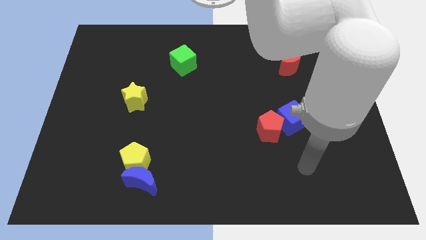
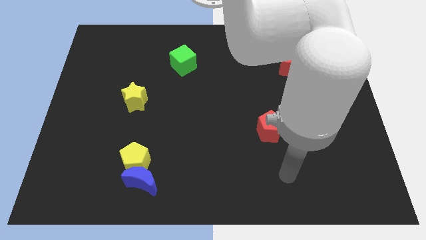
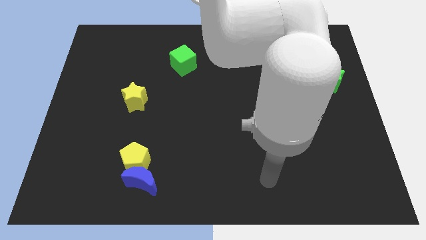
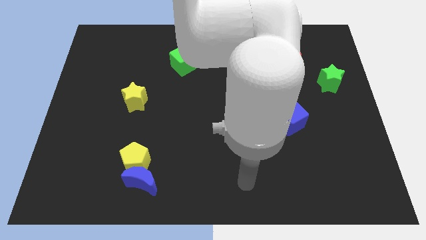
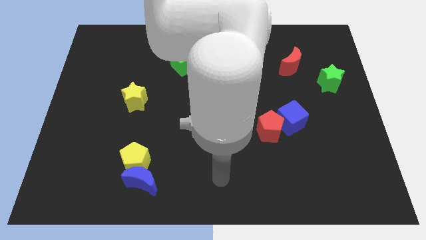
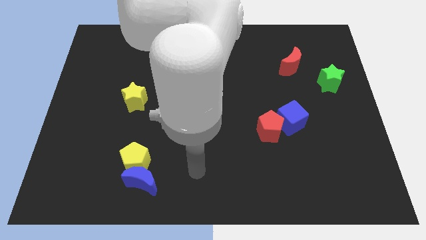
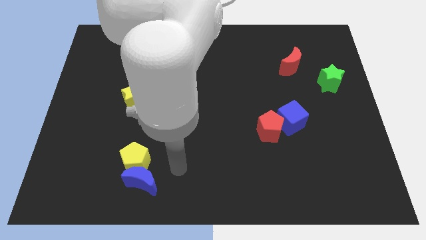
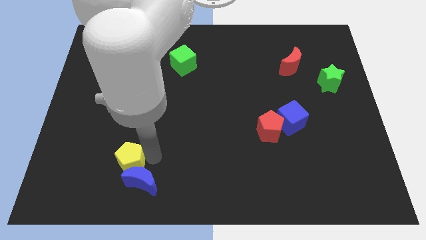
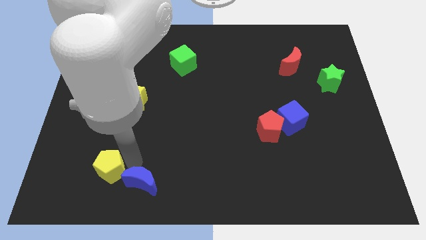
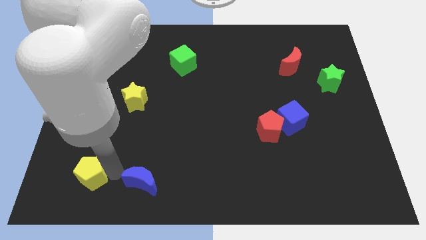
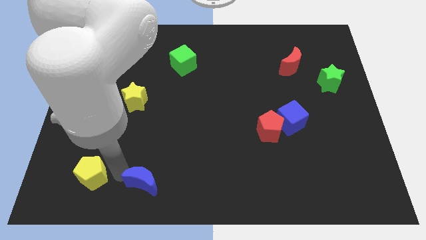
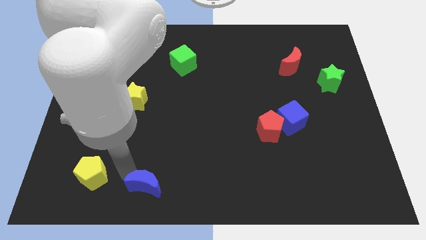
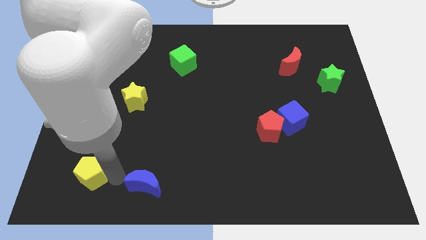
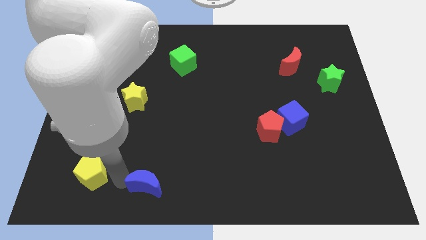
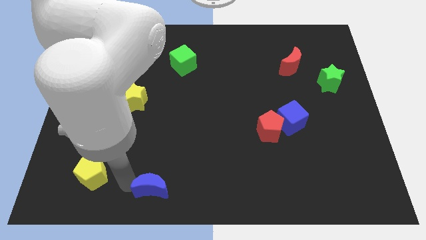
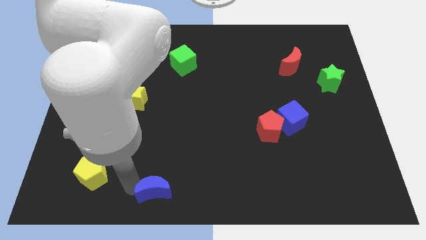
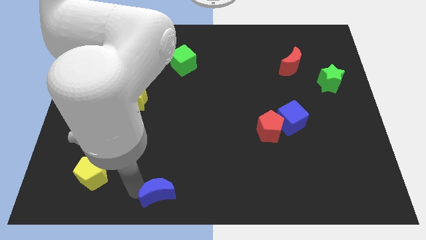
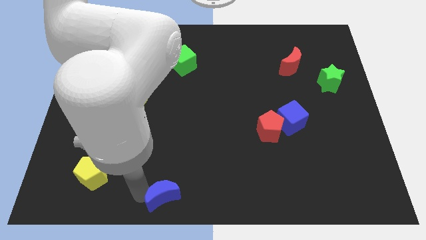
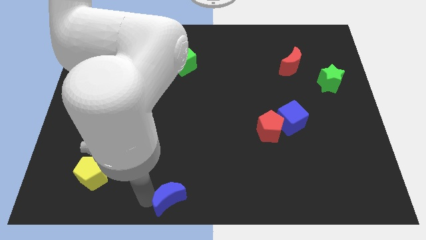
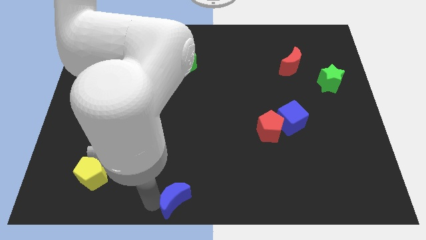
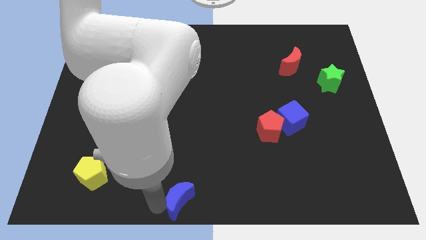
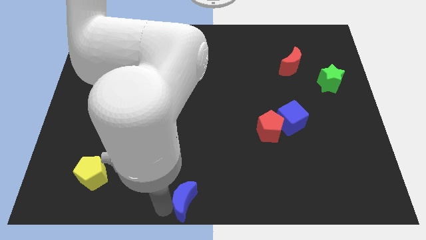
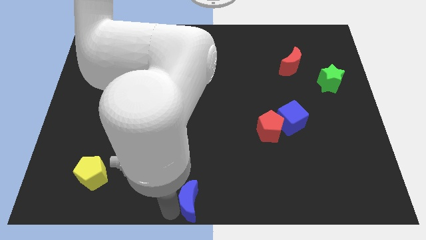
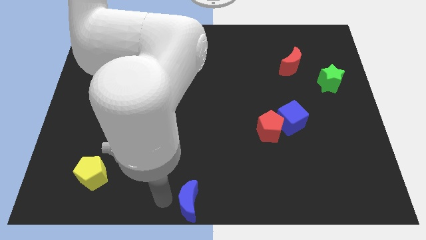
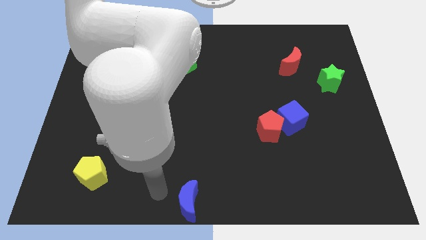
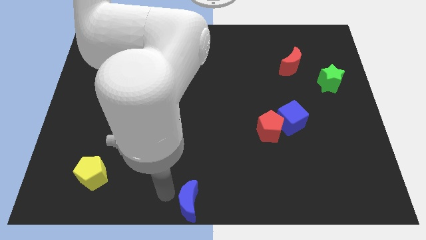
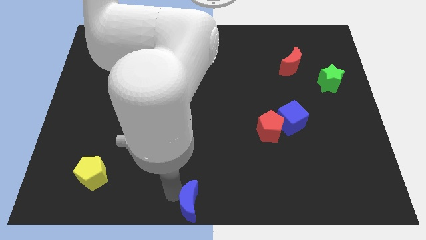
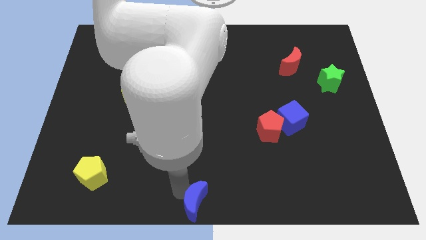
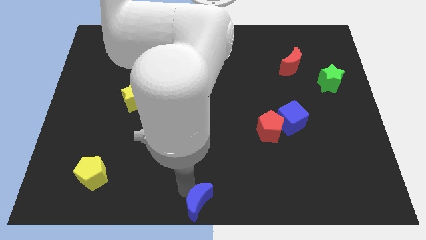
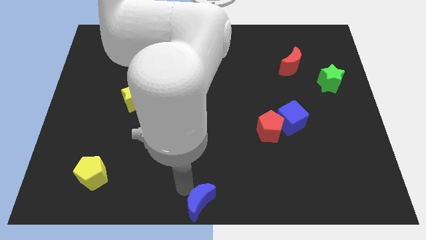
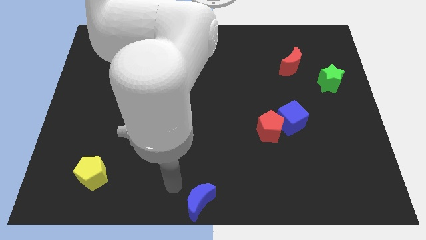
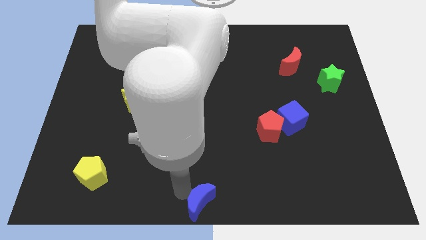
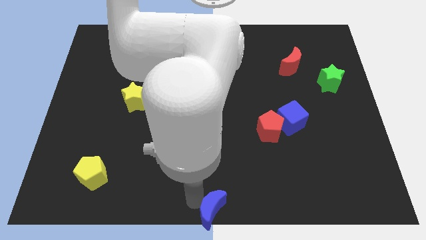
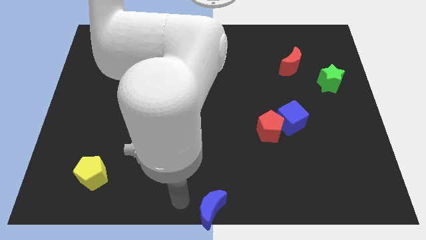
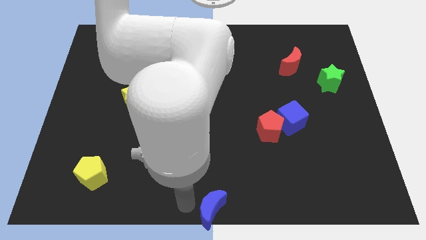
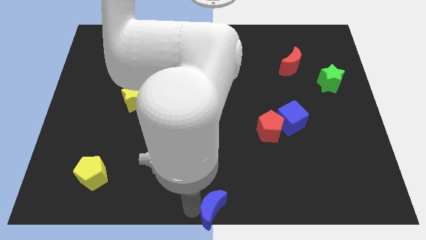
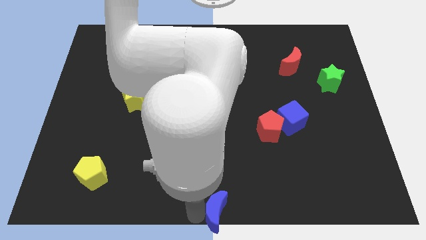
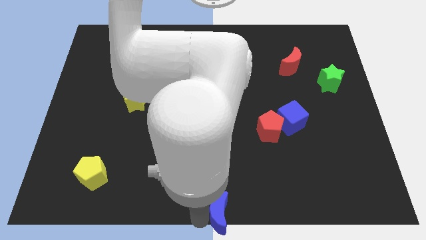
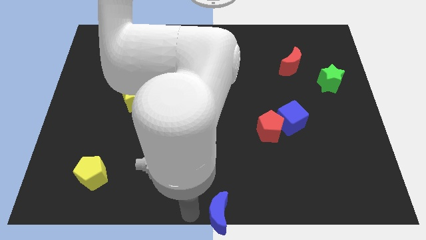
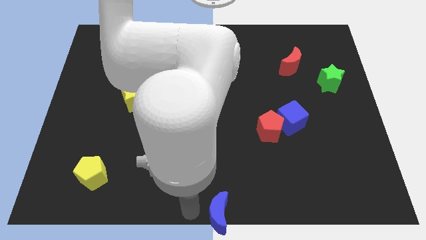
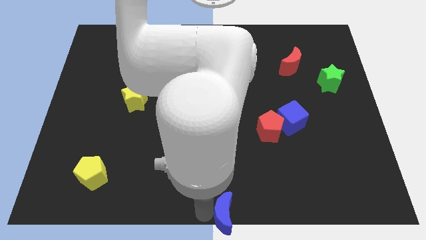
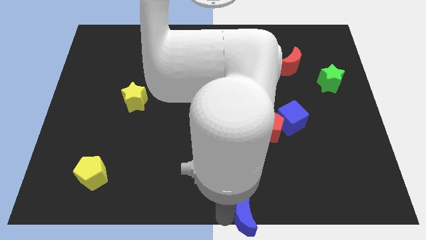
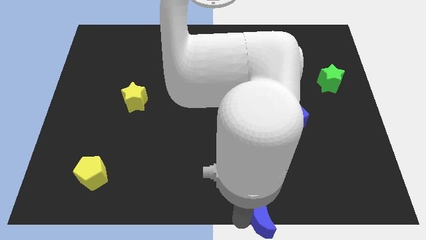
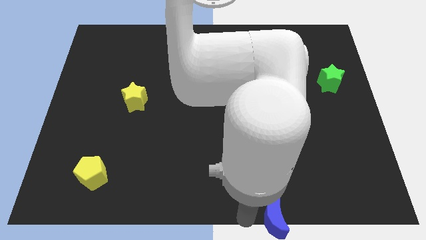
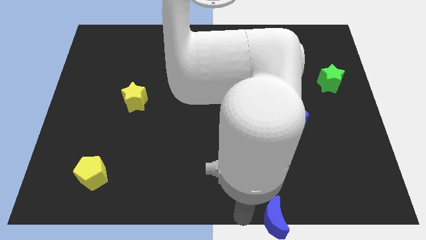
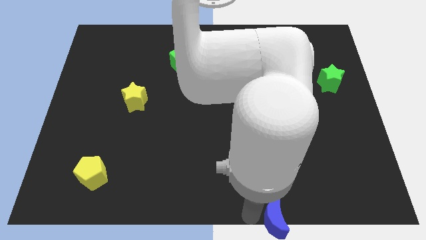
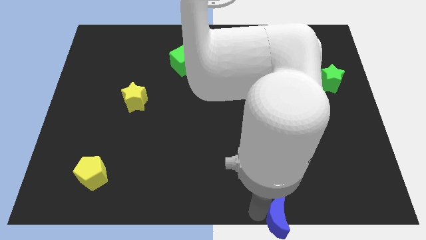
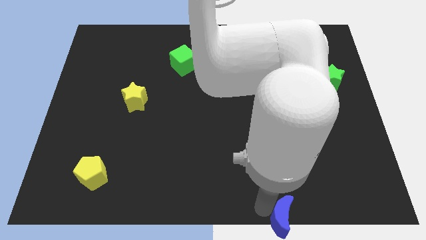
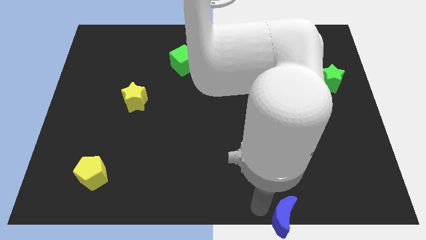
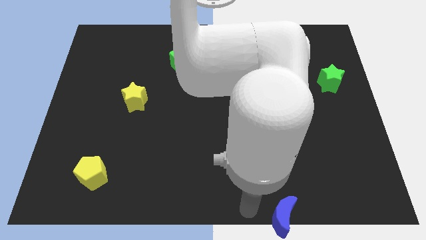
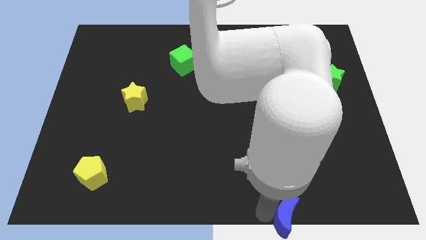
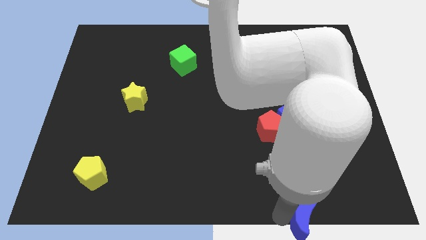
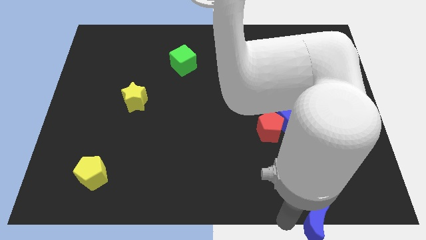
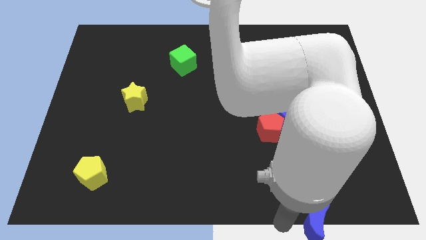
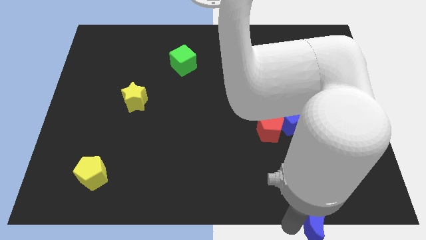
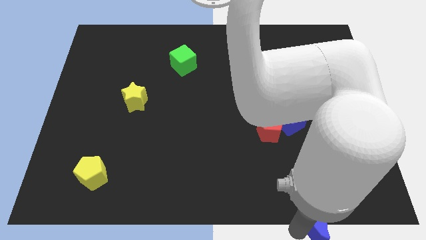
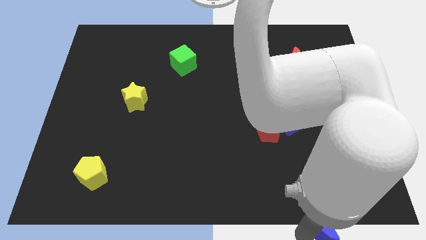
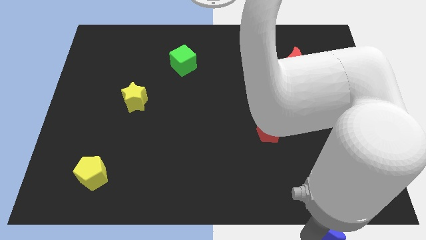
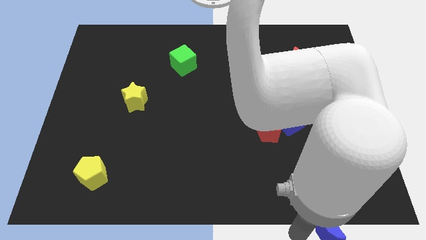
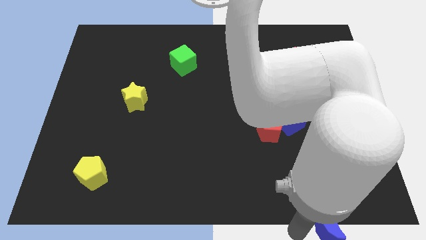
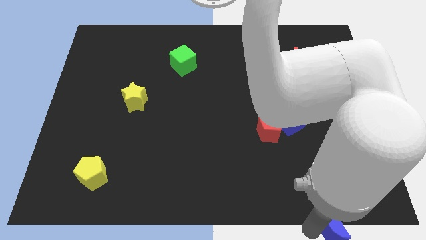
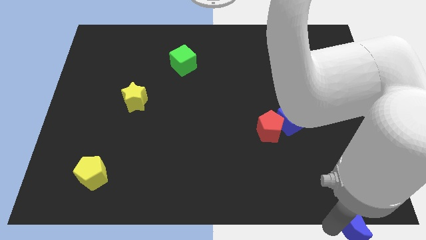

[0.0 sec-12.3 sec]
move the blue moon to the lower right corner

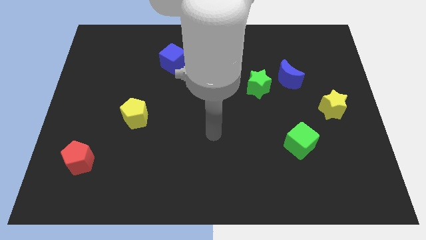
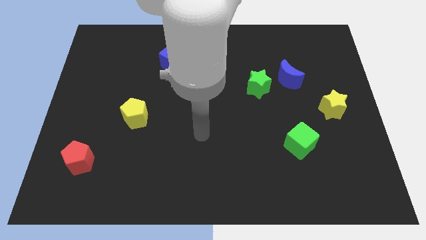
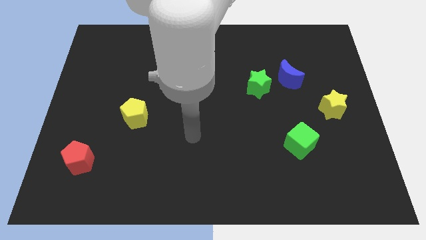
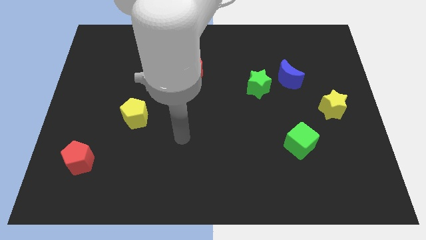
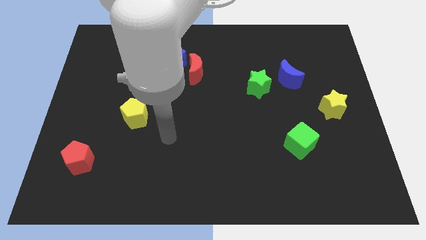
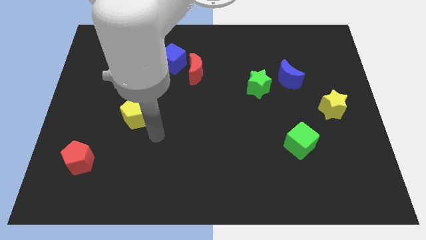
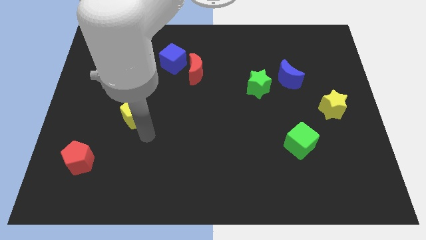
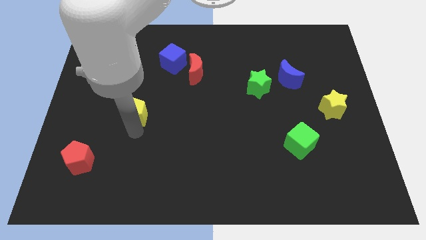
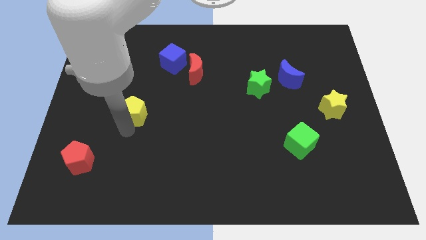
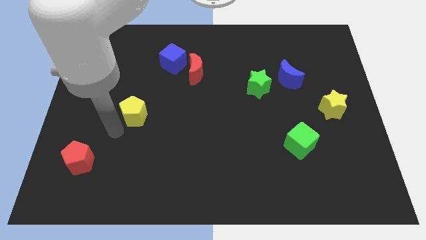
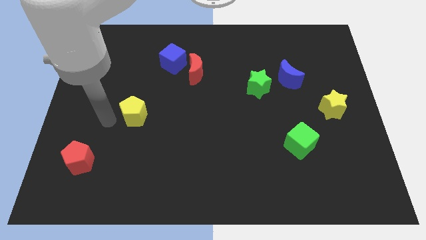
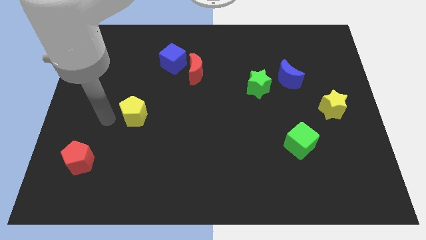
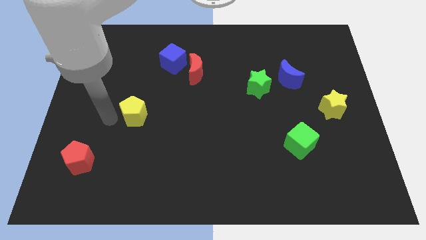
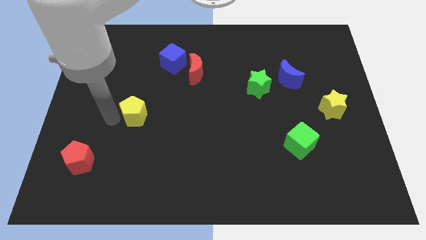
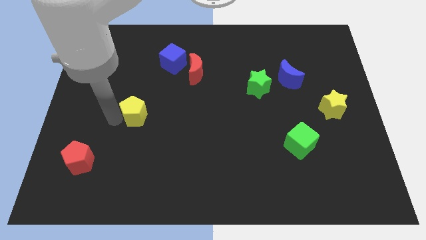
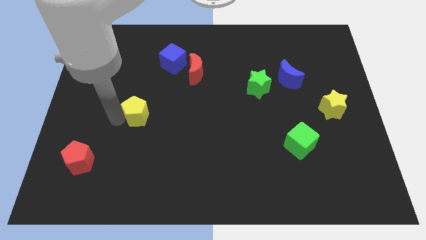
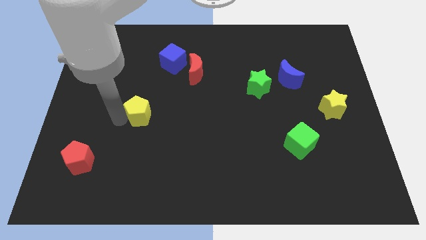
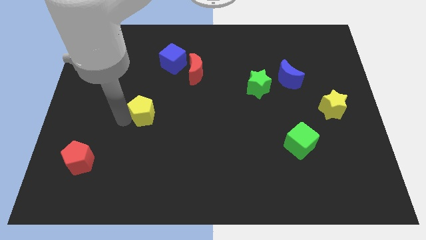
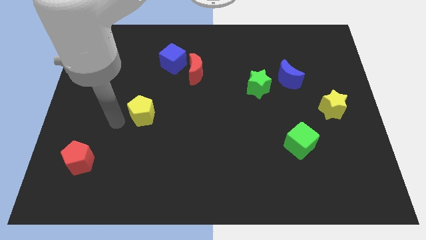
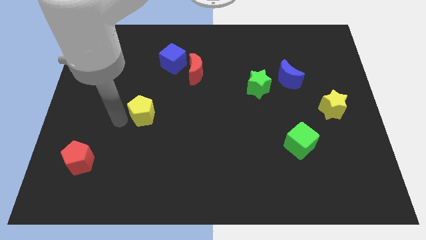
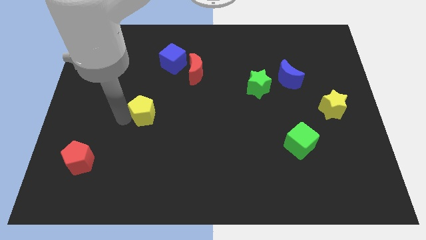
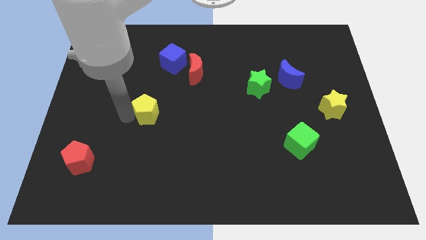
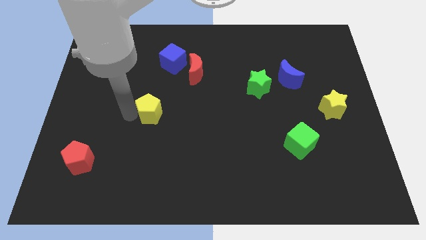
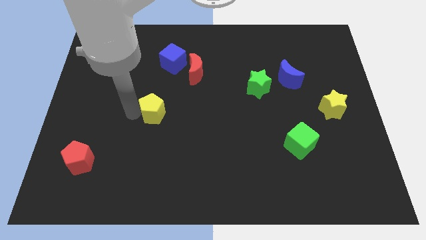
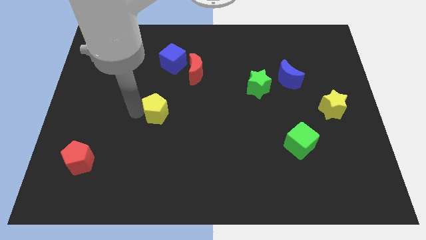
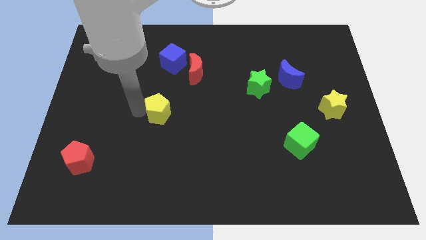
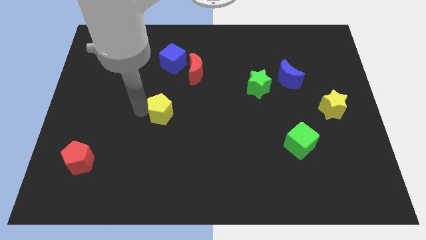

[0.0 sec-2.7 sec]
put the yellow pentagon to the center of the board
